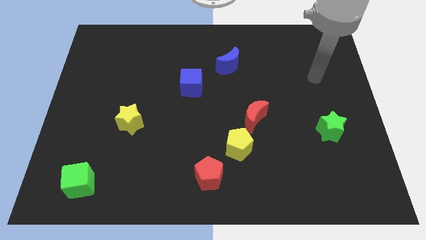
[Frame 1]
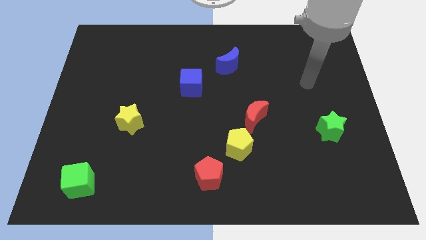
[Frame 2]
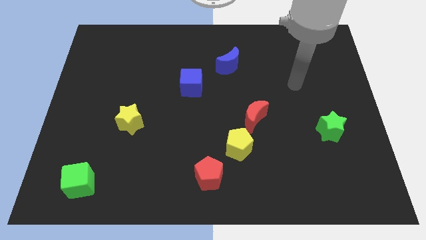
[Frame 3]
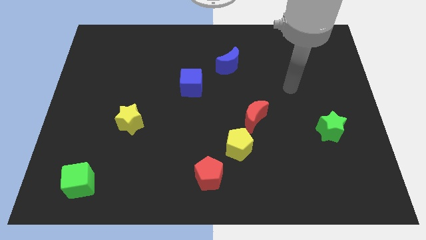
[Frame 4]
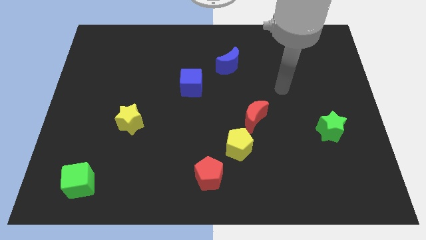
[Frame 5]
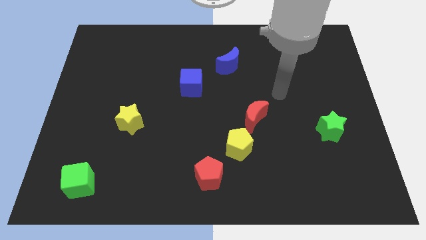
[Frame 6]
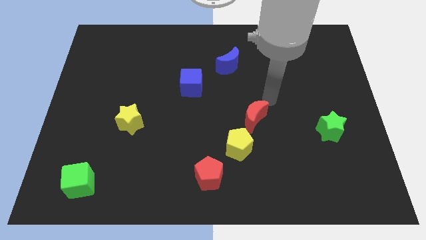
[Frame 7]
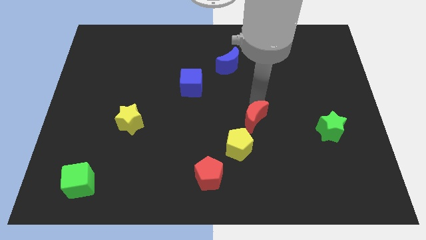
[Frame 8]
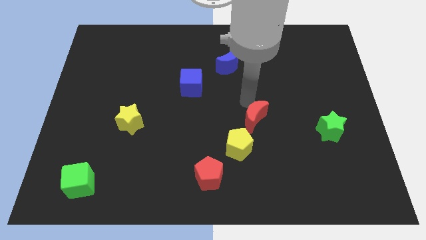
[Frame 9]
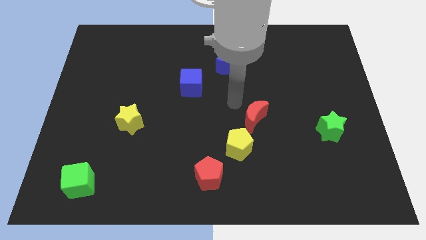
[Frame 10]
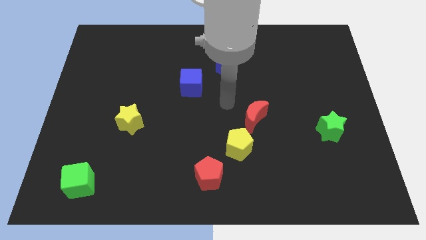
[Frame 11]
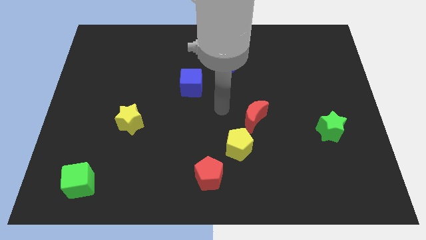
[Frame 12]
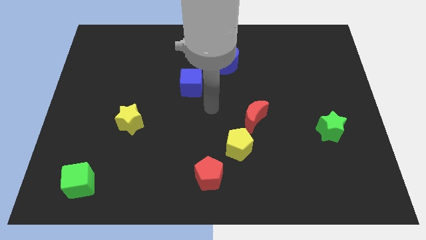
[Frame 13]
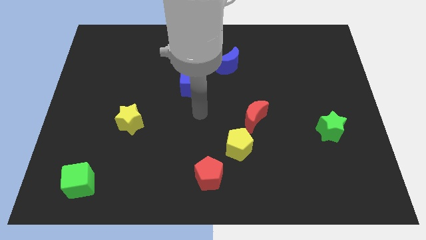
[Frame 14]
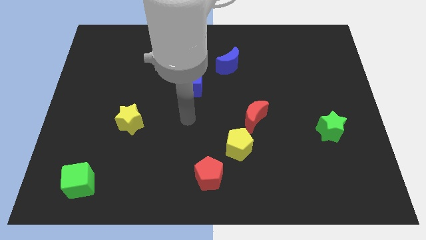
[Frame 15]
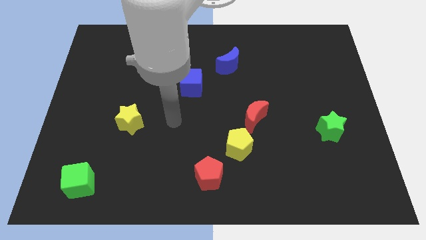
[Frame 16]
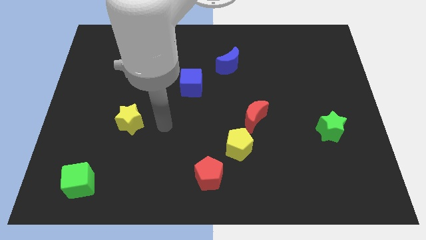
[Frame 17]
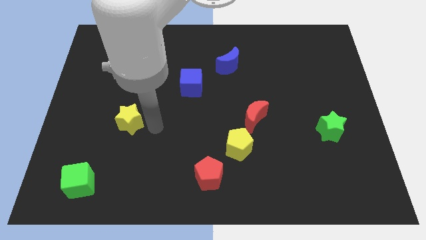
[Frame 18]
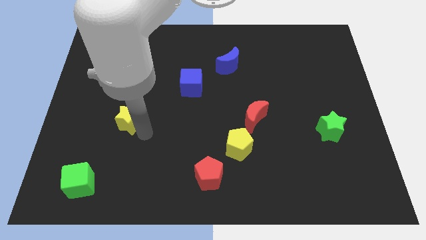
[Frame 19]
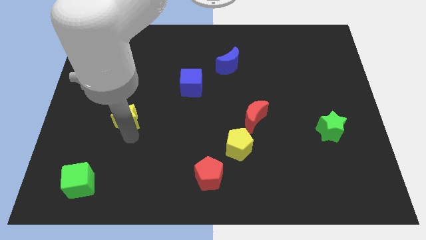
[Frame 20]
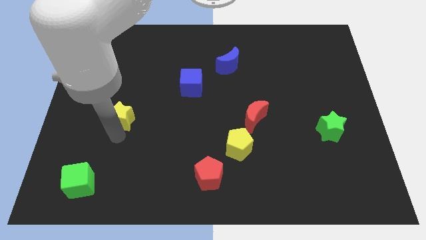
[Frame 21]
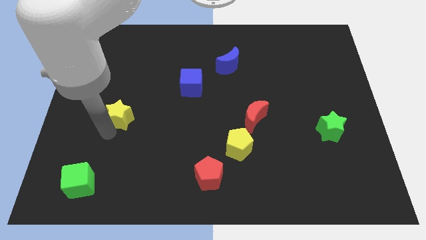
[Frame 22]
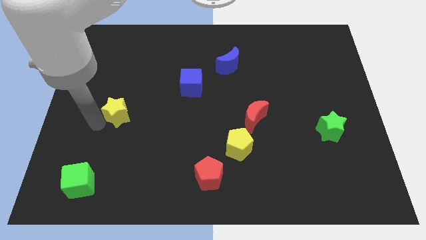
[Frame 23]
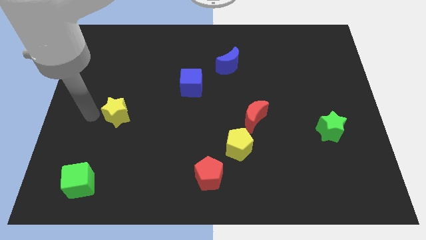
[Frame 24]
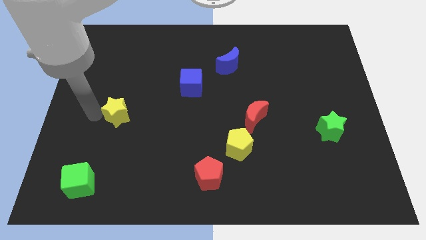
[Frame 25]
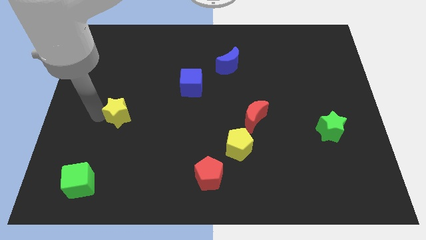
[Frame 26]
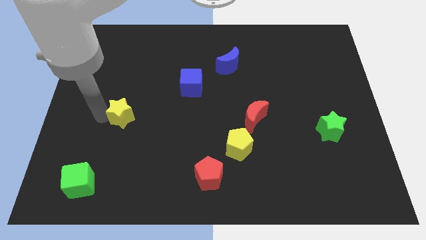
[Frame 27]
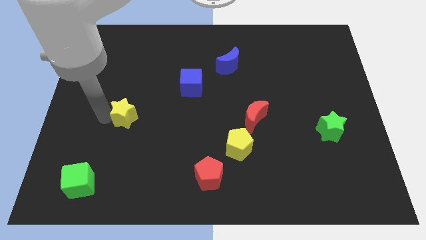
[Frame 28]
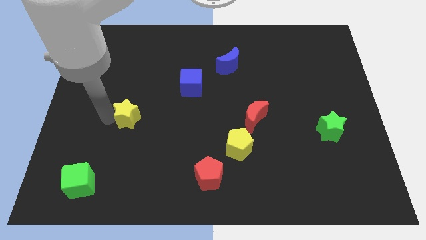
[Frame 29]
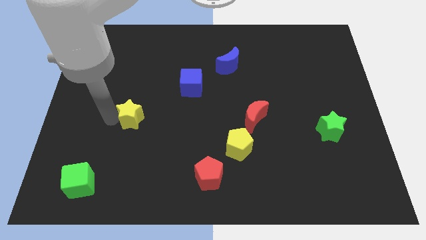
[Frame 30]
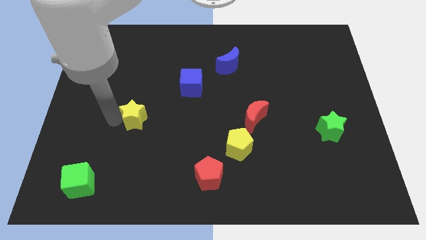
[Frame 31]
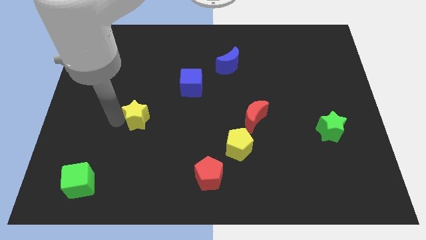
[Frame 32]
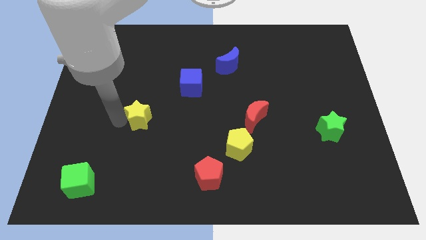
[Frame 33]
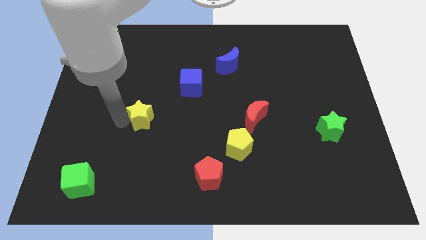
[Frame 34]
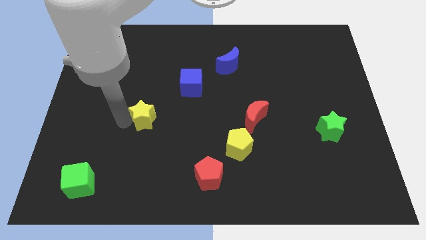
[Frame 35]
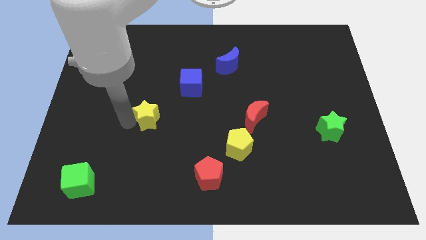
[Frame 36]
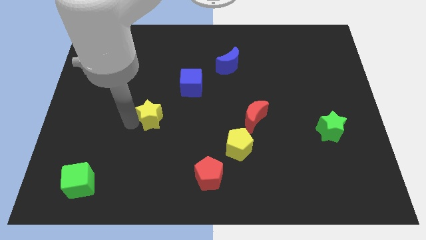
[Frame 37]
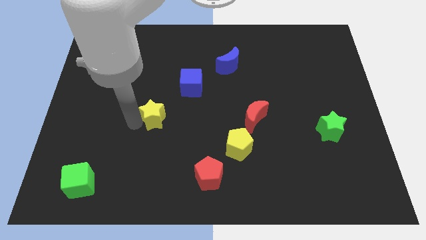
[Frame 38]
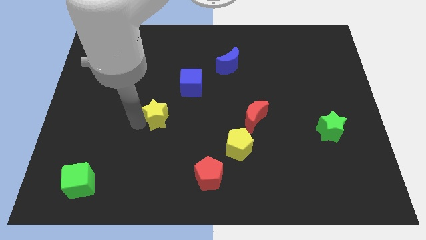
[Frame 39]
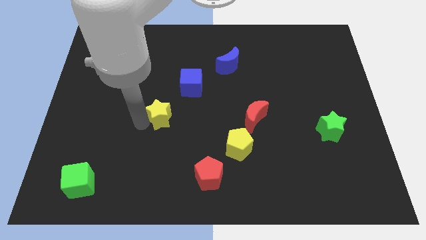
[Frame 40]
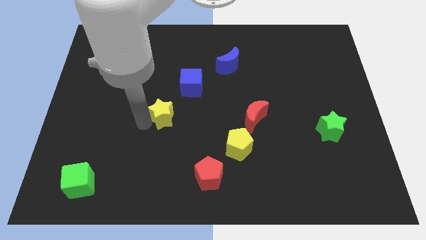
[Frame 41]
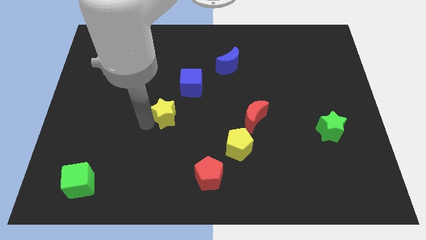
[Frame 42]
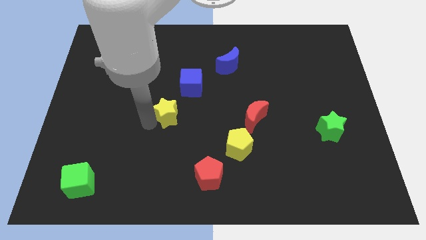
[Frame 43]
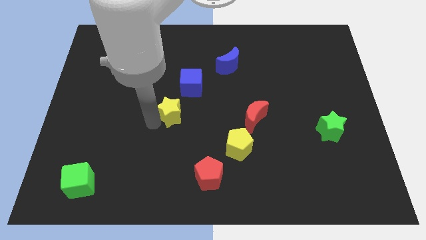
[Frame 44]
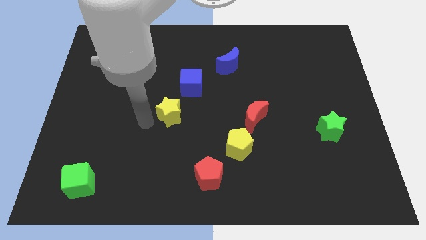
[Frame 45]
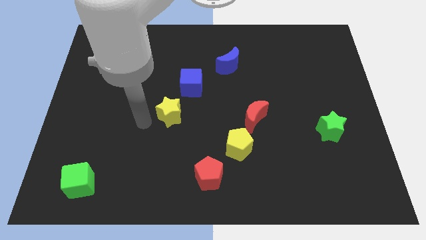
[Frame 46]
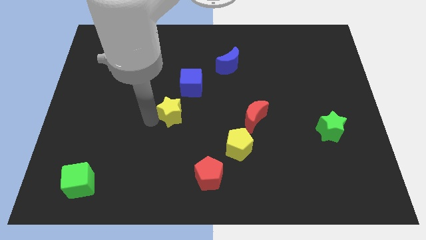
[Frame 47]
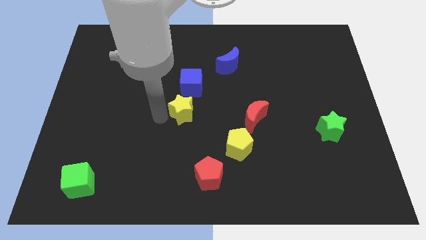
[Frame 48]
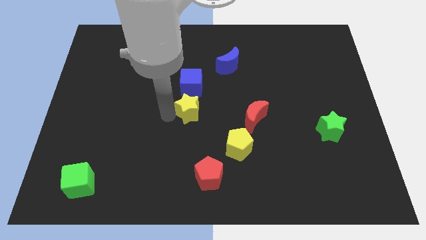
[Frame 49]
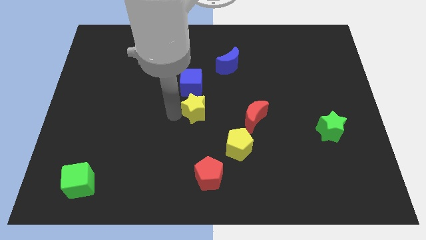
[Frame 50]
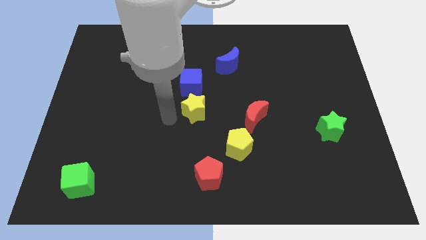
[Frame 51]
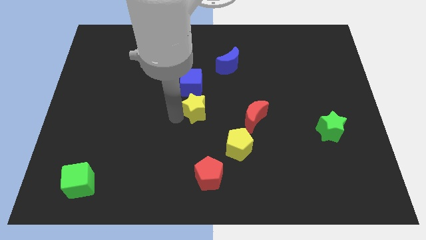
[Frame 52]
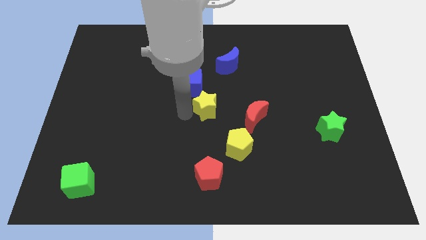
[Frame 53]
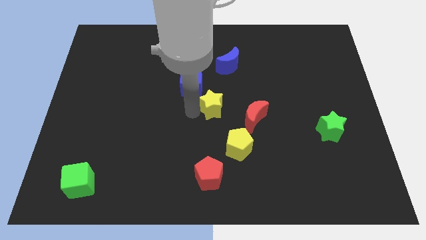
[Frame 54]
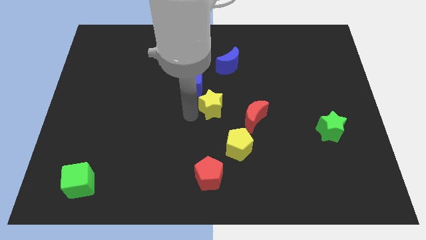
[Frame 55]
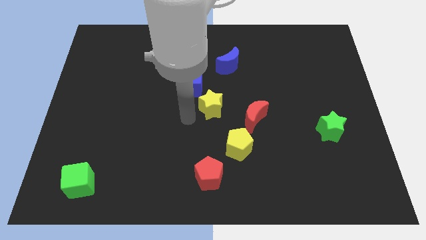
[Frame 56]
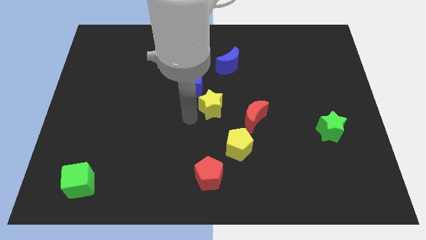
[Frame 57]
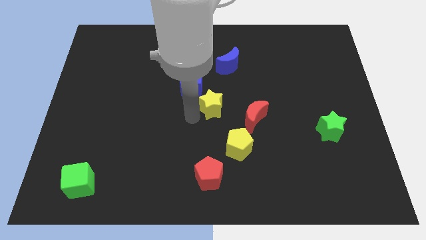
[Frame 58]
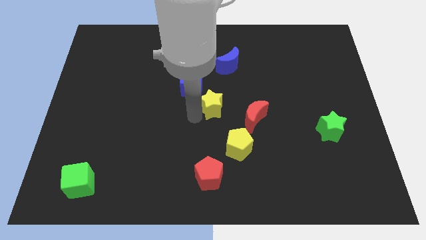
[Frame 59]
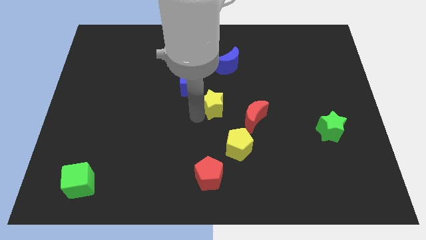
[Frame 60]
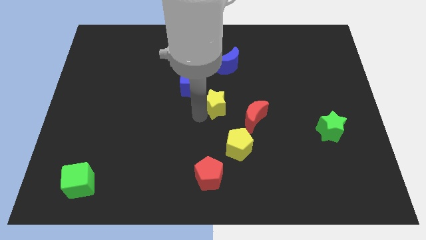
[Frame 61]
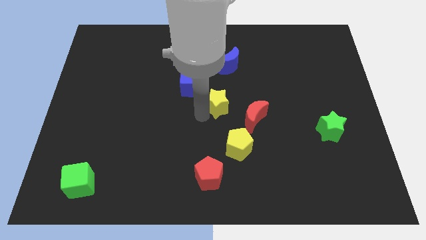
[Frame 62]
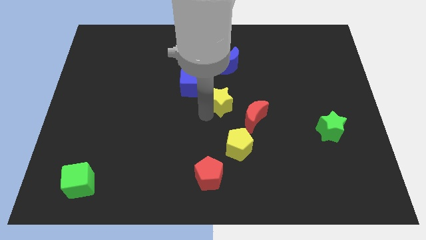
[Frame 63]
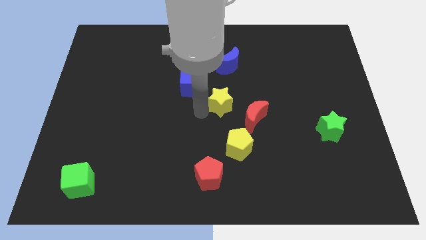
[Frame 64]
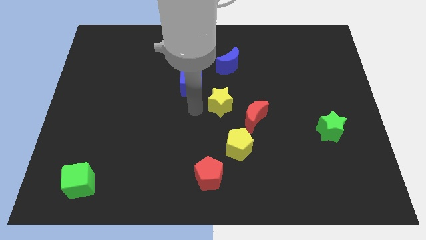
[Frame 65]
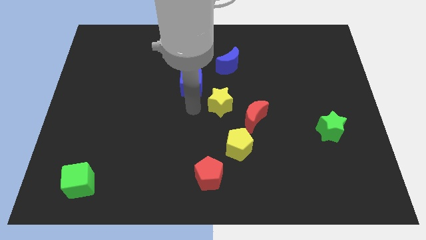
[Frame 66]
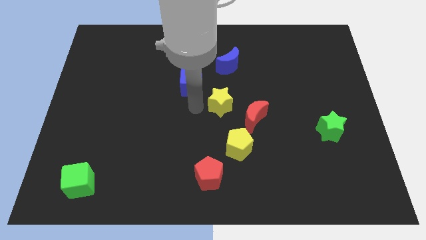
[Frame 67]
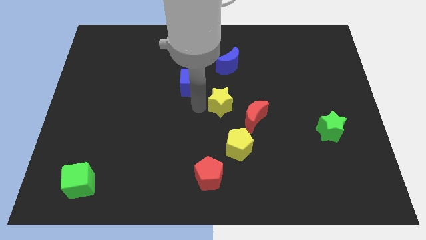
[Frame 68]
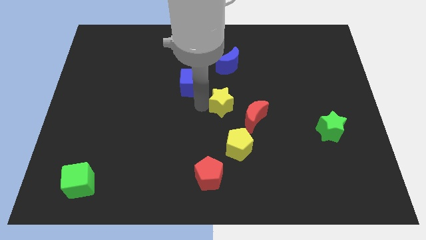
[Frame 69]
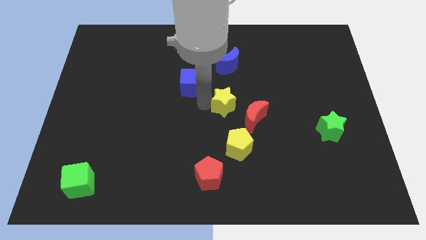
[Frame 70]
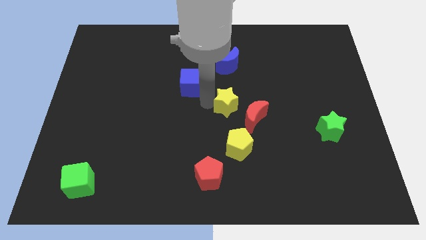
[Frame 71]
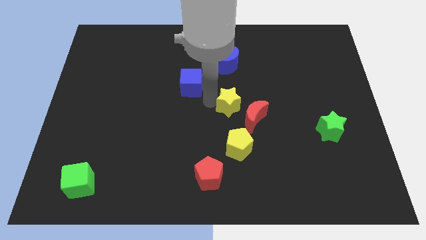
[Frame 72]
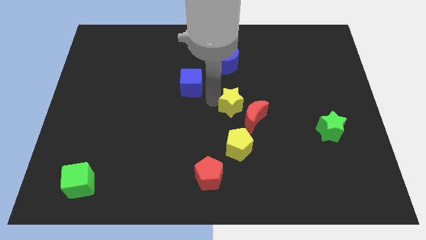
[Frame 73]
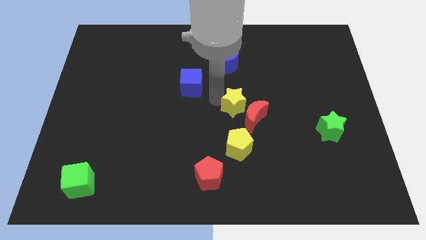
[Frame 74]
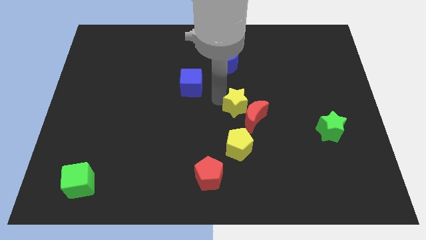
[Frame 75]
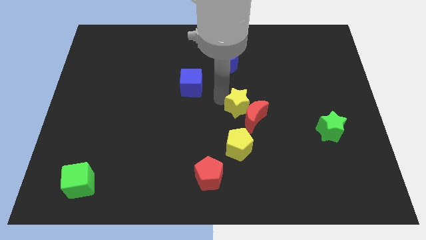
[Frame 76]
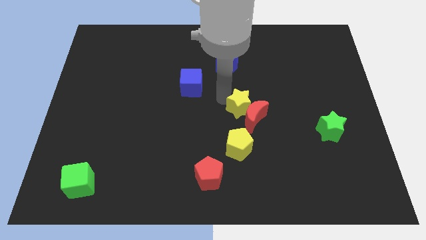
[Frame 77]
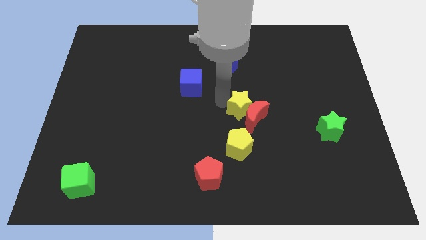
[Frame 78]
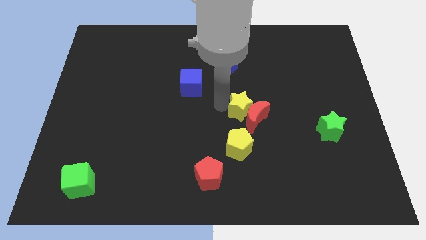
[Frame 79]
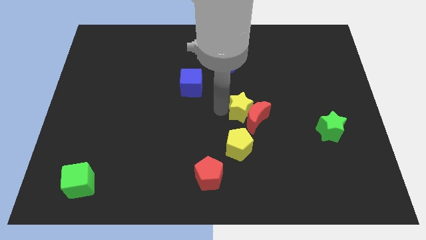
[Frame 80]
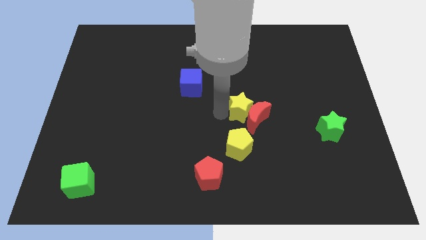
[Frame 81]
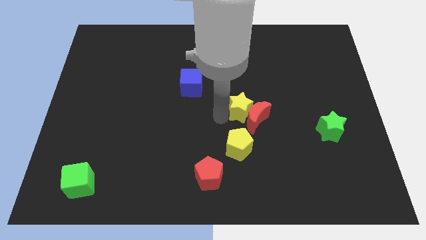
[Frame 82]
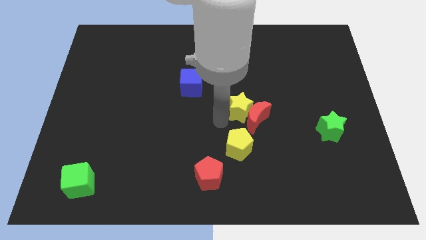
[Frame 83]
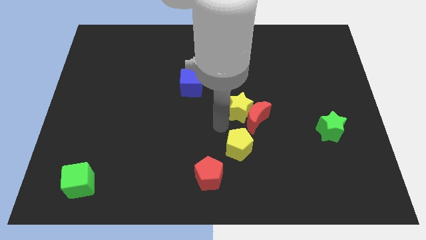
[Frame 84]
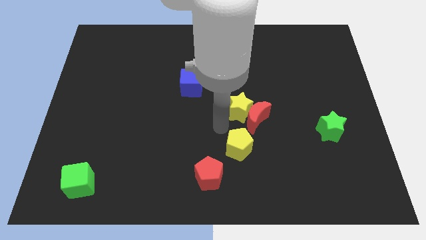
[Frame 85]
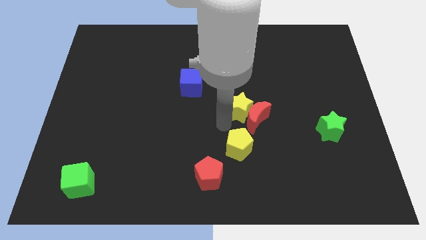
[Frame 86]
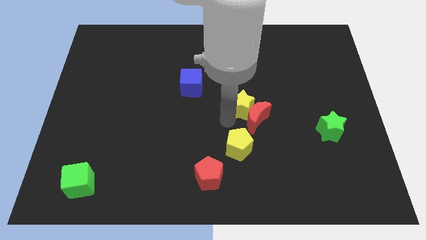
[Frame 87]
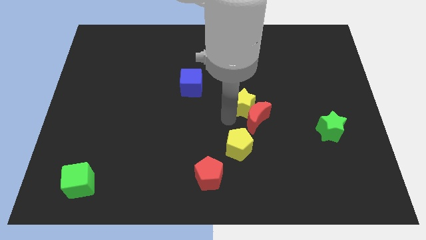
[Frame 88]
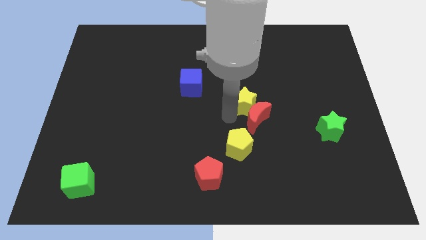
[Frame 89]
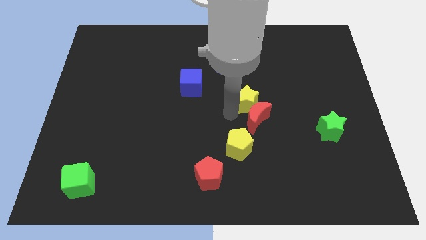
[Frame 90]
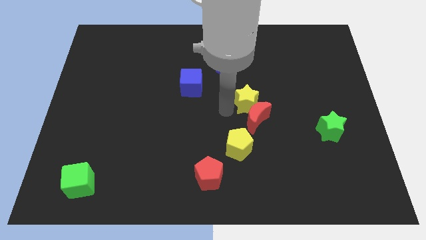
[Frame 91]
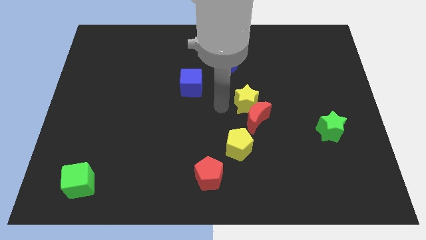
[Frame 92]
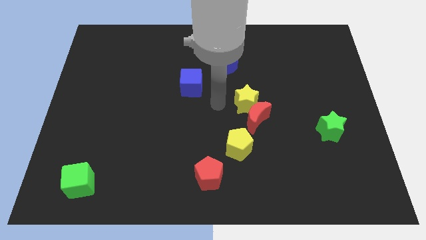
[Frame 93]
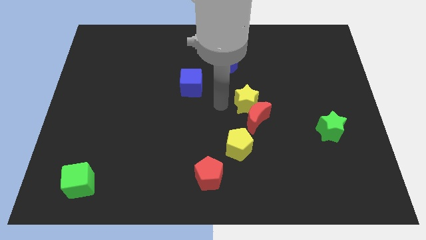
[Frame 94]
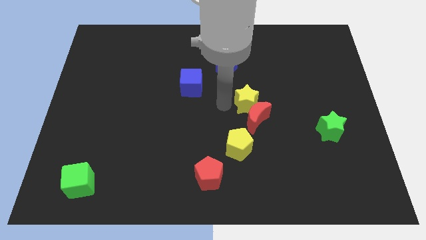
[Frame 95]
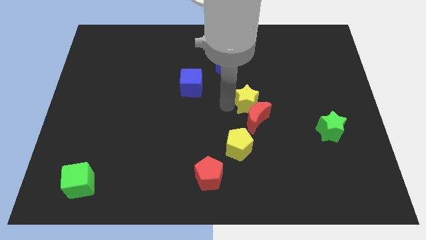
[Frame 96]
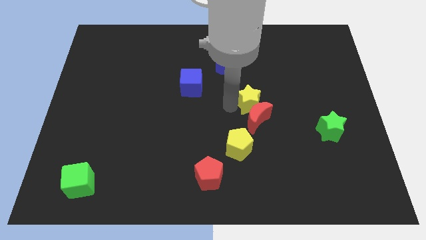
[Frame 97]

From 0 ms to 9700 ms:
put the yellow star to the top right side of the red moon
